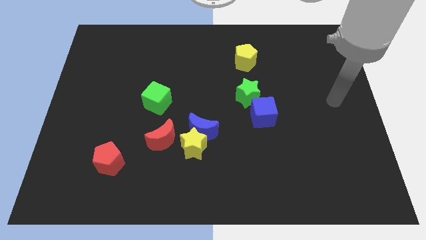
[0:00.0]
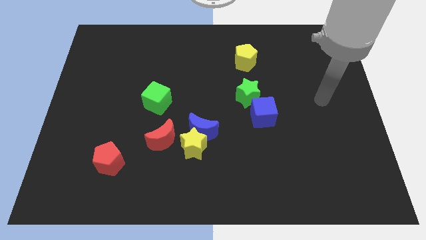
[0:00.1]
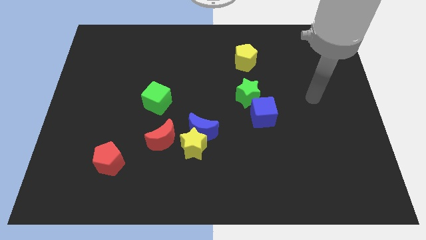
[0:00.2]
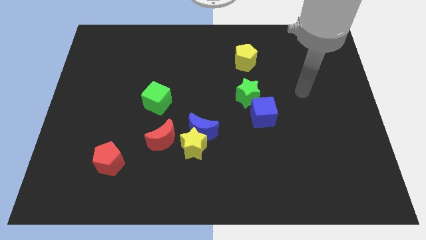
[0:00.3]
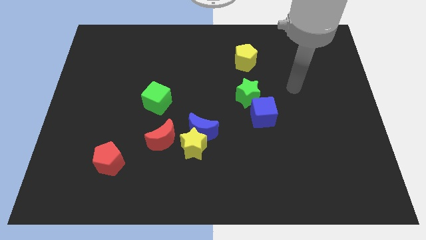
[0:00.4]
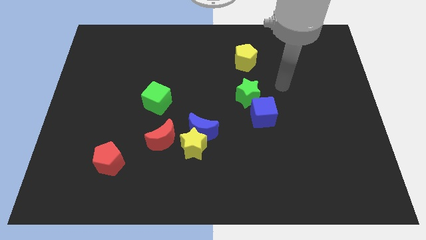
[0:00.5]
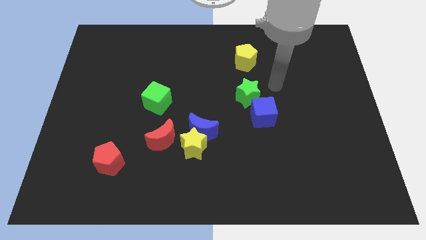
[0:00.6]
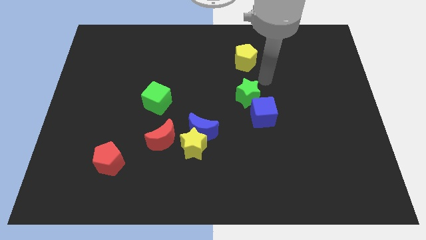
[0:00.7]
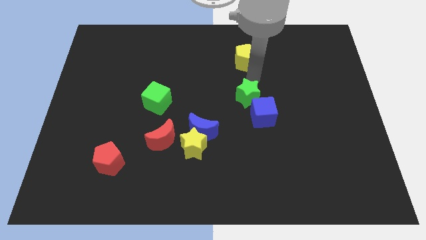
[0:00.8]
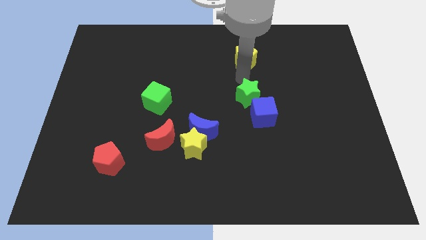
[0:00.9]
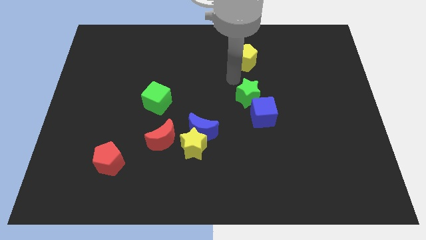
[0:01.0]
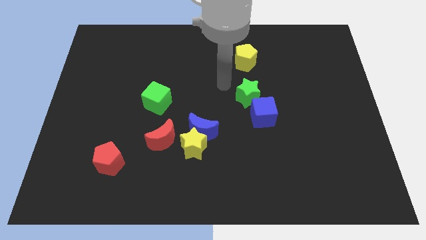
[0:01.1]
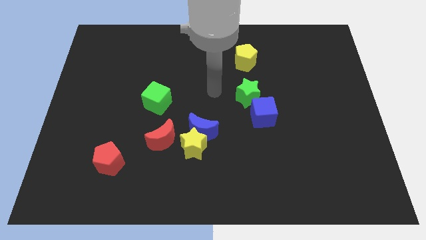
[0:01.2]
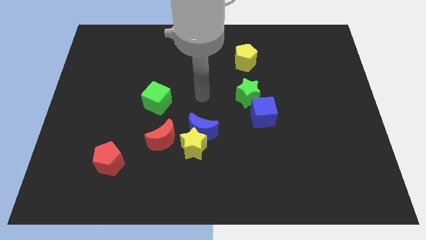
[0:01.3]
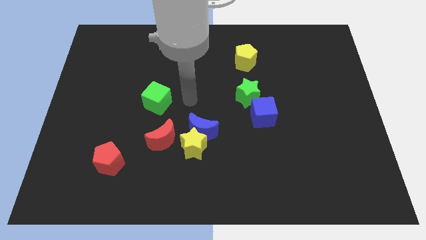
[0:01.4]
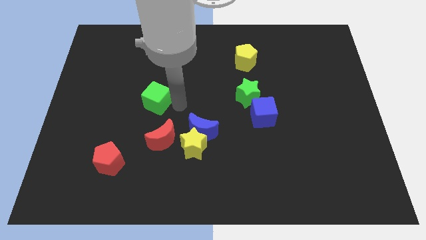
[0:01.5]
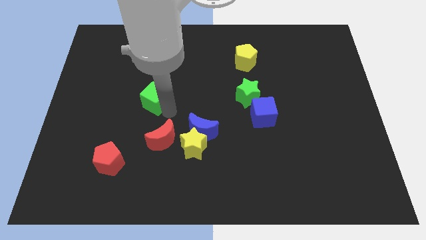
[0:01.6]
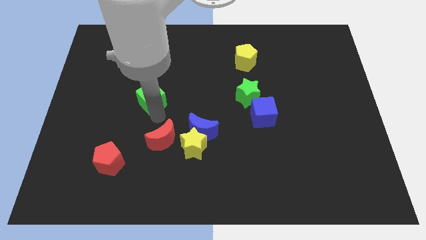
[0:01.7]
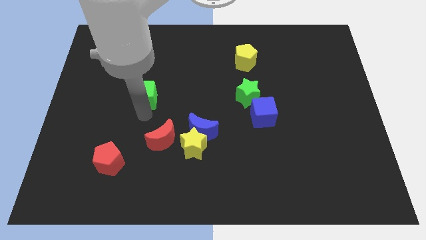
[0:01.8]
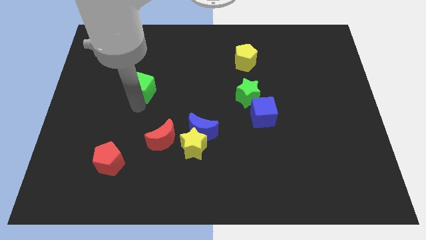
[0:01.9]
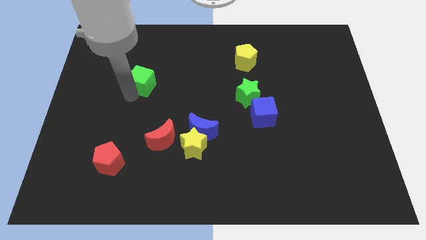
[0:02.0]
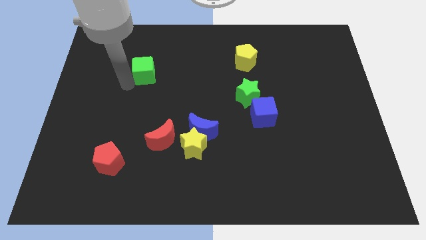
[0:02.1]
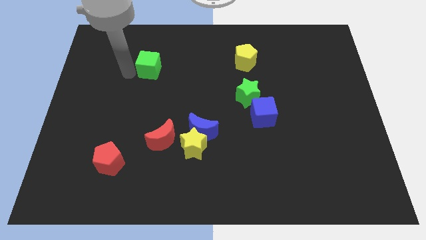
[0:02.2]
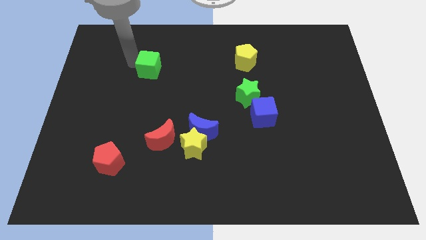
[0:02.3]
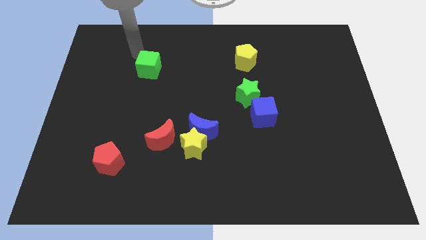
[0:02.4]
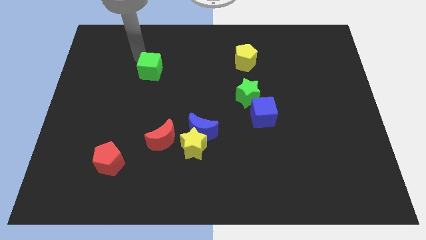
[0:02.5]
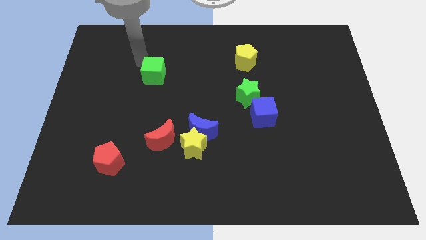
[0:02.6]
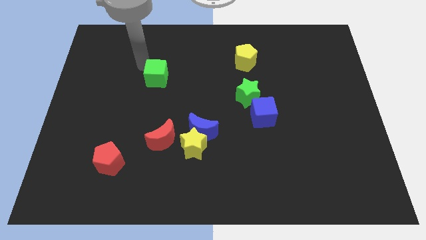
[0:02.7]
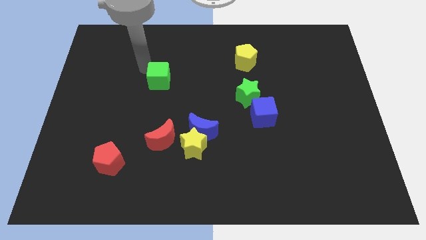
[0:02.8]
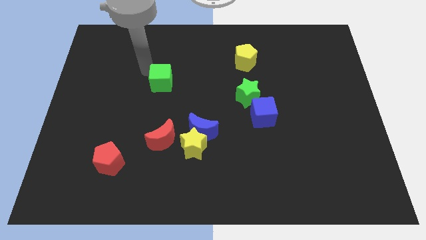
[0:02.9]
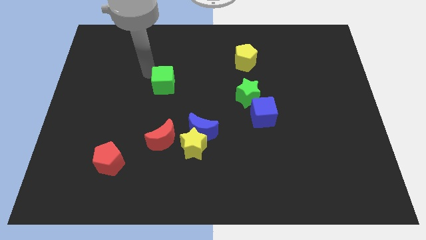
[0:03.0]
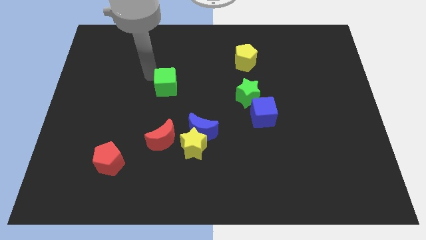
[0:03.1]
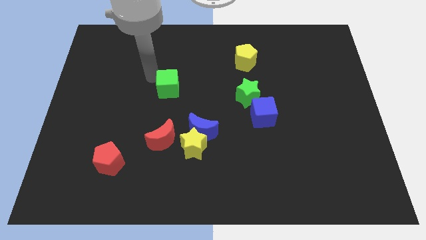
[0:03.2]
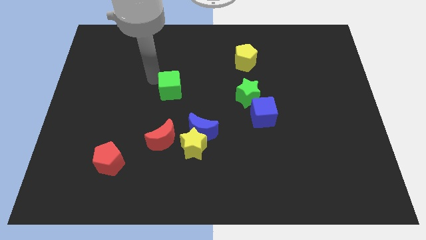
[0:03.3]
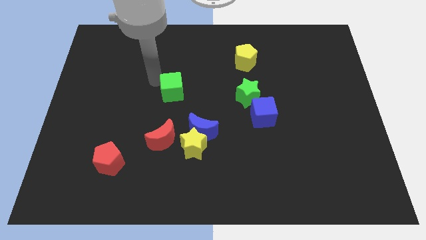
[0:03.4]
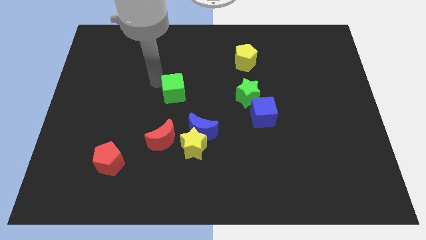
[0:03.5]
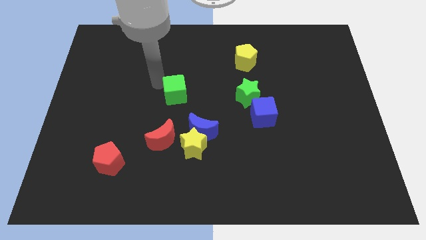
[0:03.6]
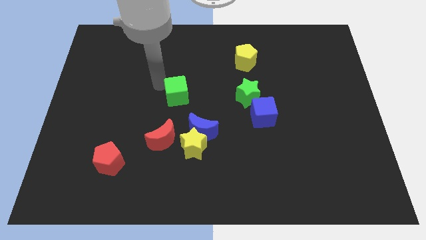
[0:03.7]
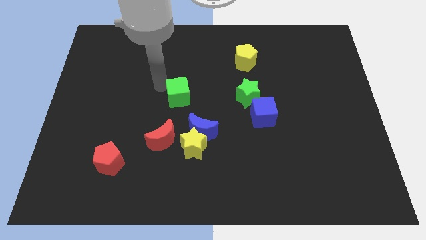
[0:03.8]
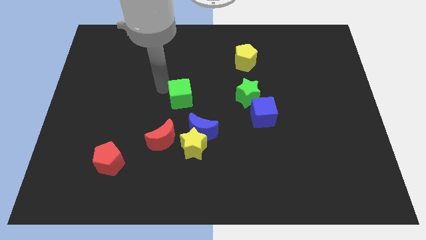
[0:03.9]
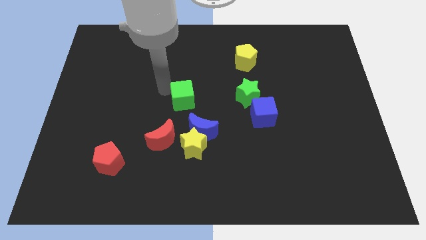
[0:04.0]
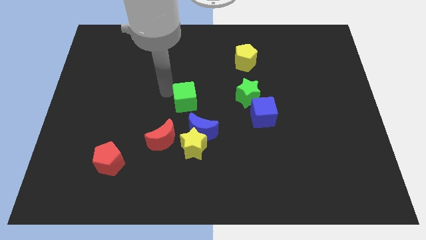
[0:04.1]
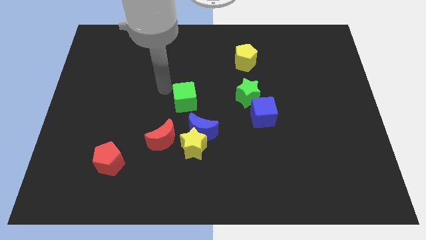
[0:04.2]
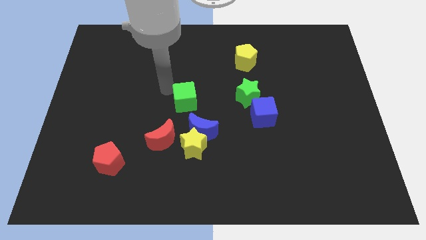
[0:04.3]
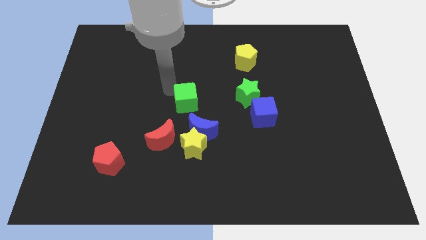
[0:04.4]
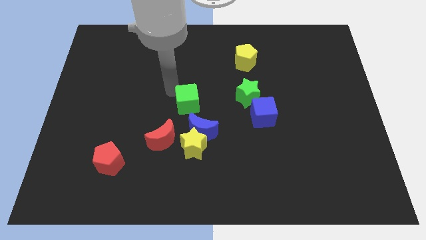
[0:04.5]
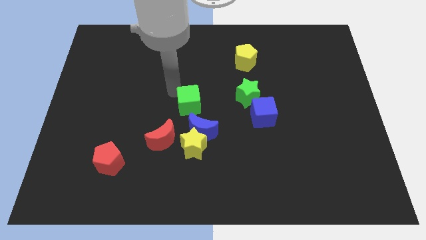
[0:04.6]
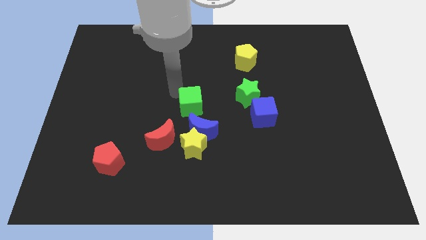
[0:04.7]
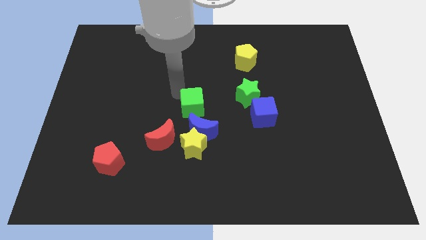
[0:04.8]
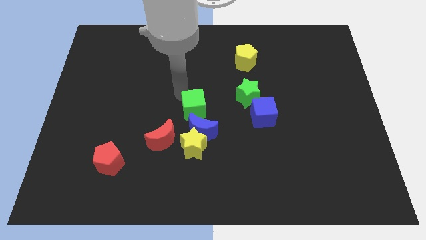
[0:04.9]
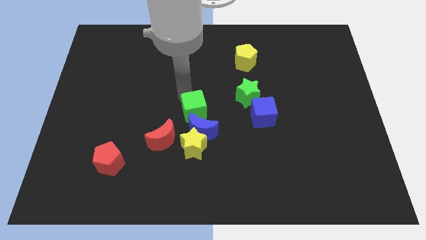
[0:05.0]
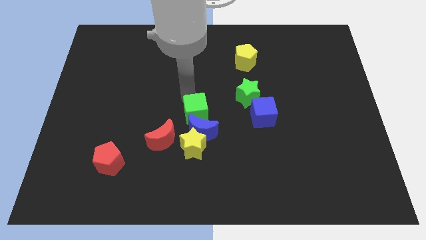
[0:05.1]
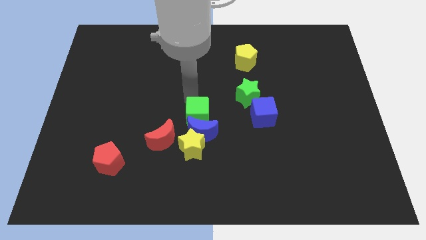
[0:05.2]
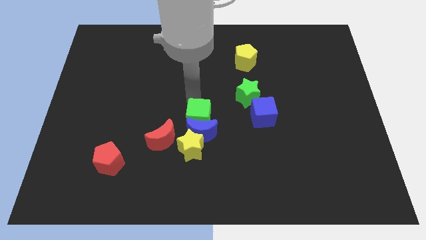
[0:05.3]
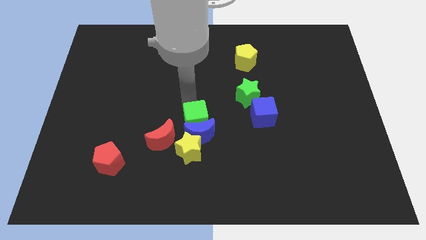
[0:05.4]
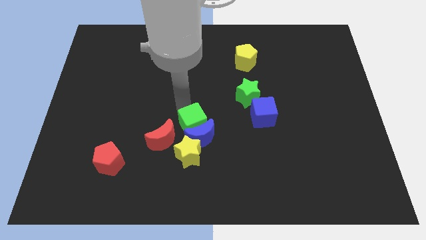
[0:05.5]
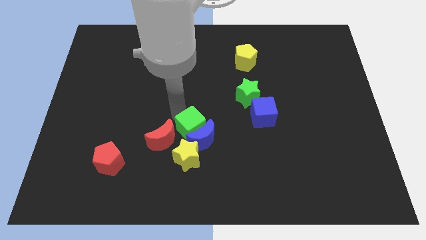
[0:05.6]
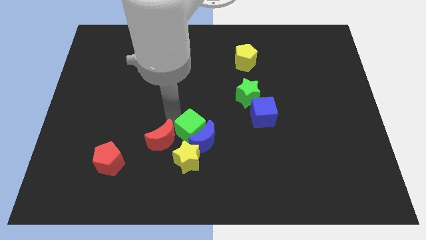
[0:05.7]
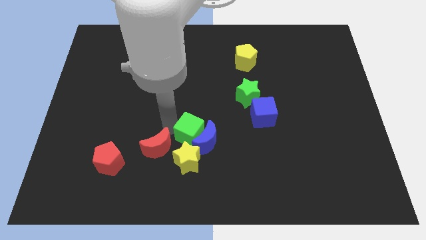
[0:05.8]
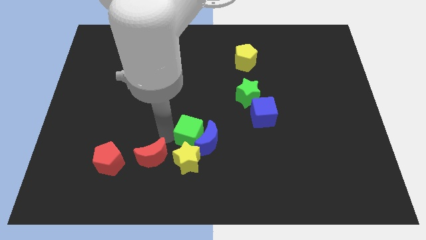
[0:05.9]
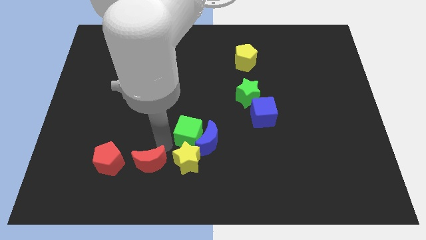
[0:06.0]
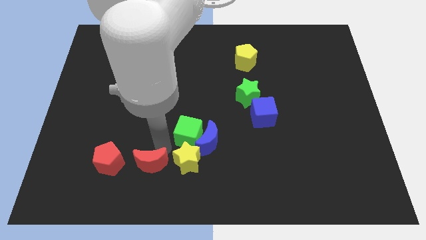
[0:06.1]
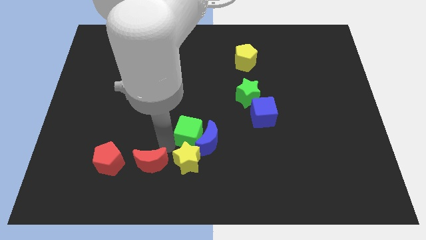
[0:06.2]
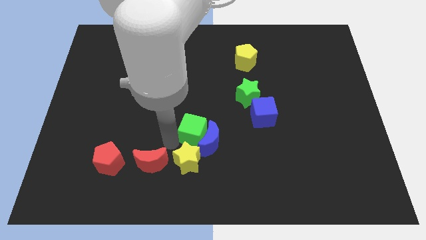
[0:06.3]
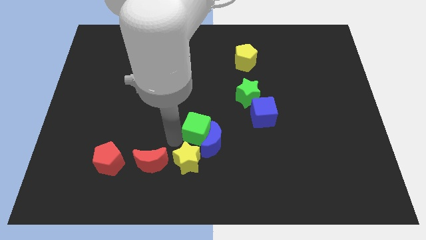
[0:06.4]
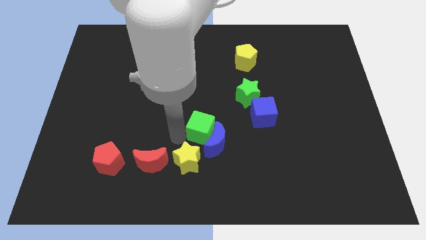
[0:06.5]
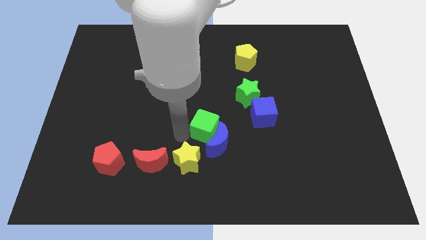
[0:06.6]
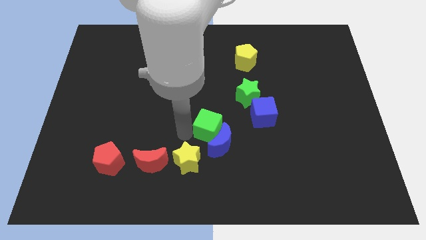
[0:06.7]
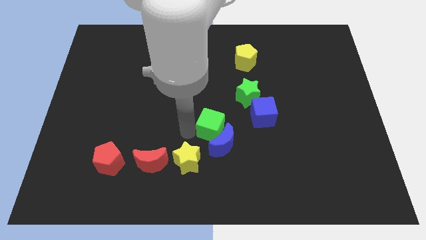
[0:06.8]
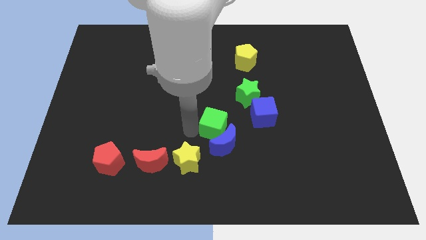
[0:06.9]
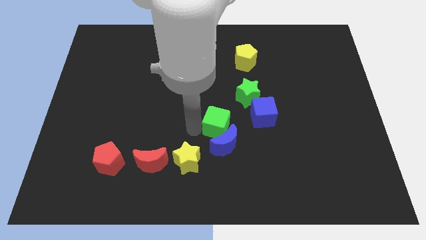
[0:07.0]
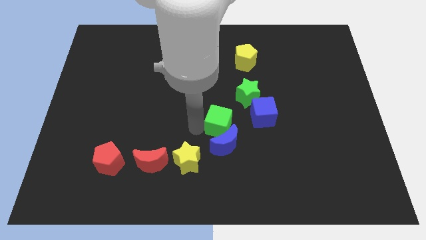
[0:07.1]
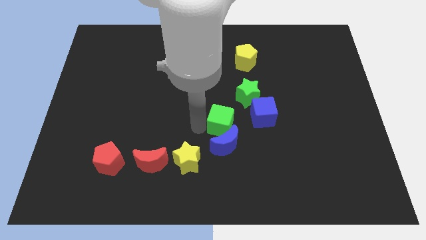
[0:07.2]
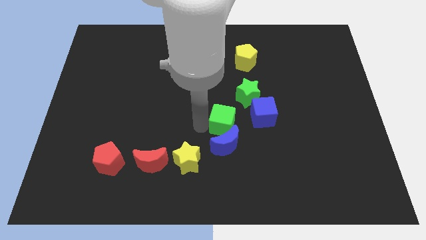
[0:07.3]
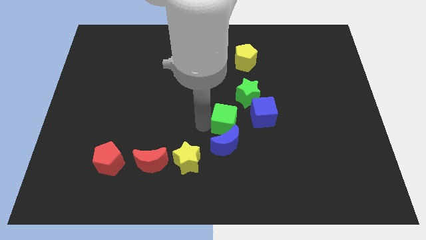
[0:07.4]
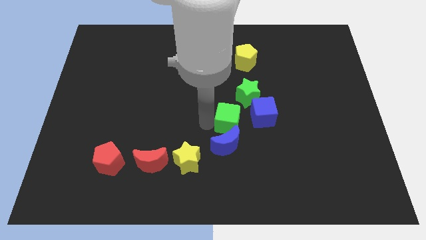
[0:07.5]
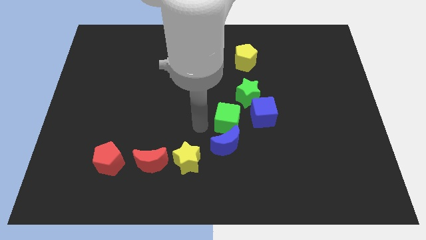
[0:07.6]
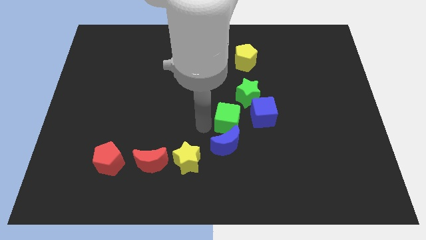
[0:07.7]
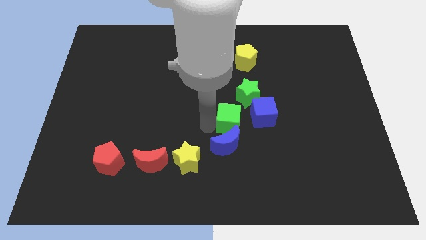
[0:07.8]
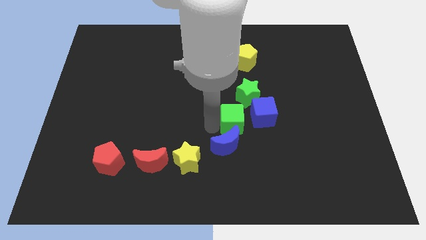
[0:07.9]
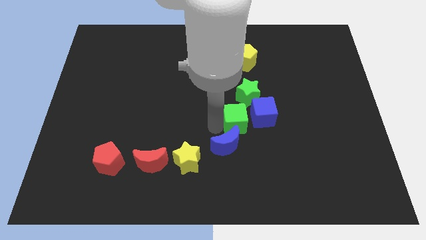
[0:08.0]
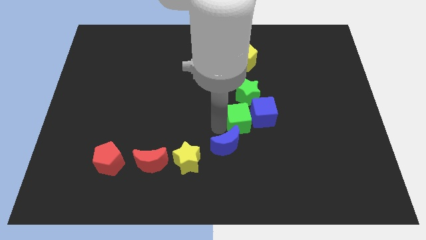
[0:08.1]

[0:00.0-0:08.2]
move the green cube next to the blue cube
